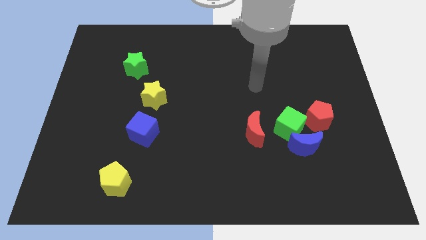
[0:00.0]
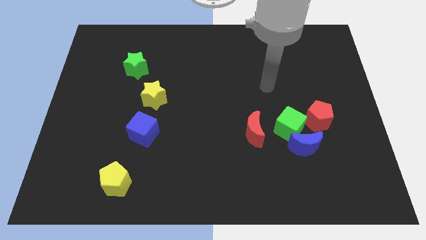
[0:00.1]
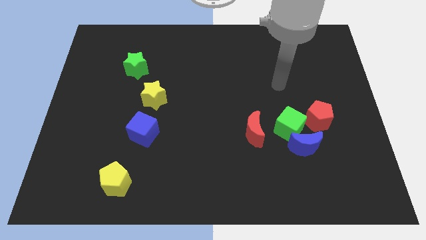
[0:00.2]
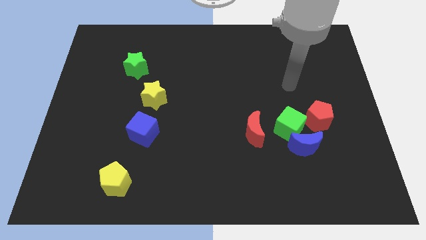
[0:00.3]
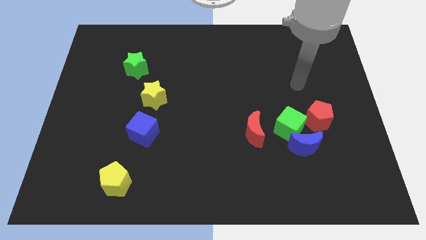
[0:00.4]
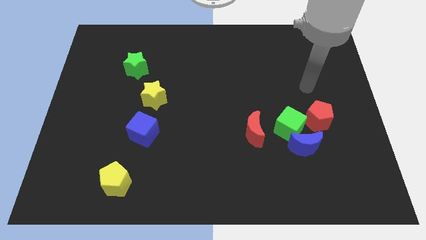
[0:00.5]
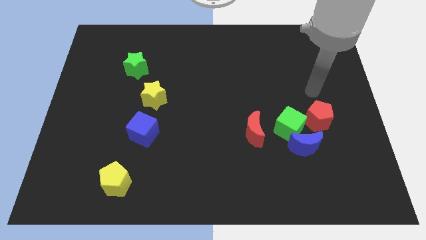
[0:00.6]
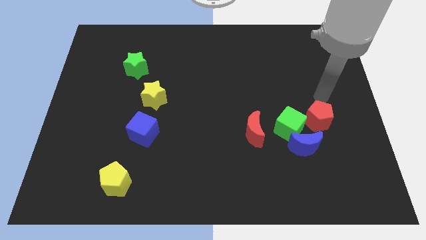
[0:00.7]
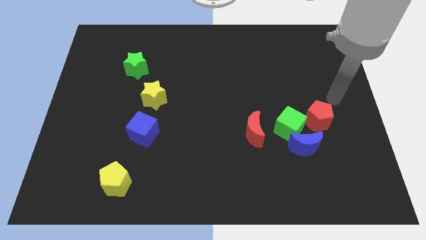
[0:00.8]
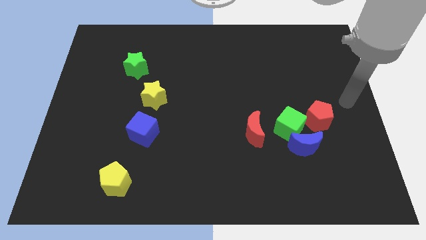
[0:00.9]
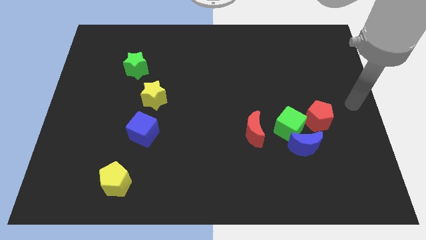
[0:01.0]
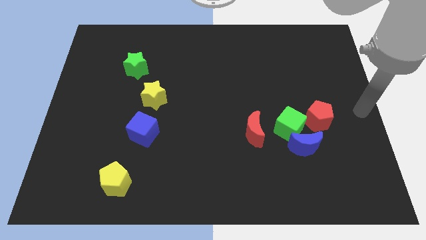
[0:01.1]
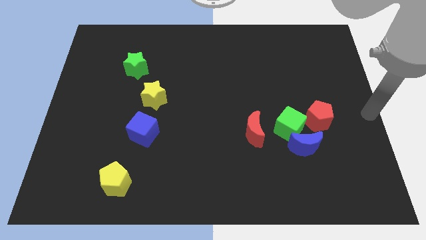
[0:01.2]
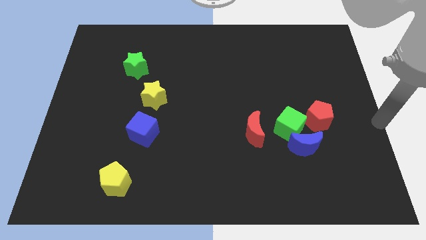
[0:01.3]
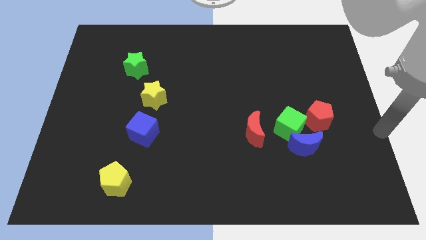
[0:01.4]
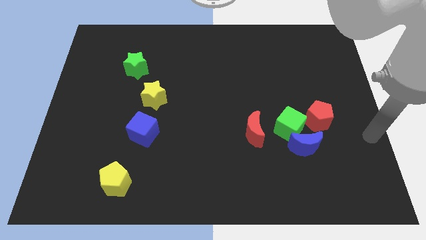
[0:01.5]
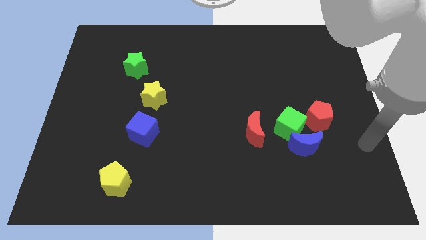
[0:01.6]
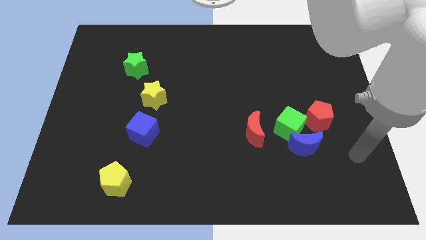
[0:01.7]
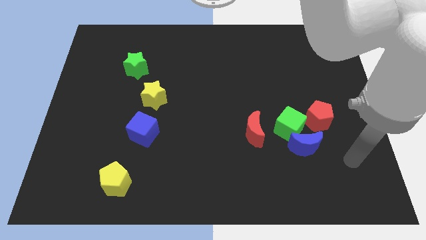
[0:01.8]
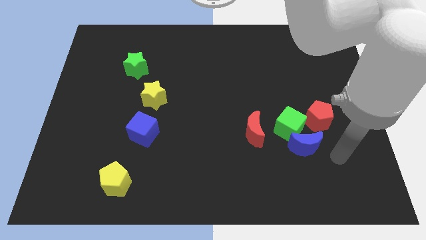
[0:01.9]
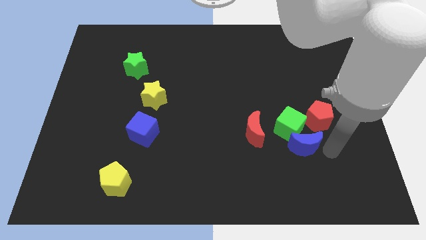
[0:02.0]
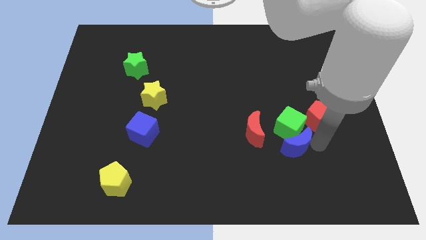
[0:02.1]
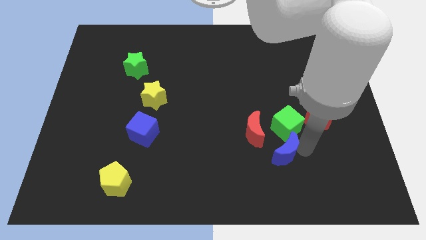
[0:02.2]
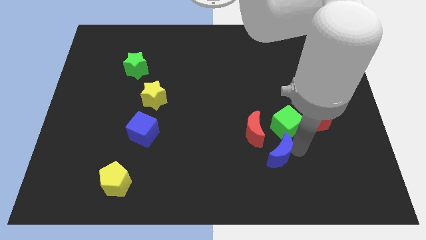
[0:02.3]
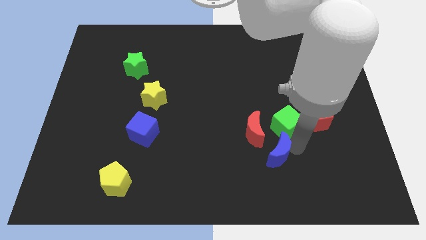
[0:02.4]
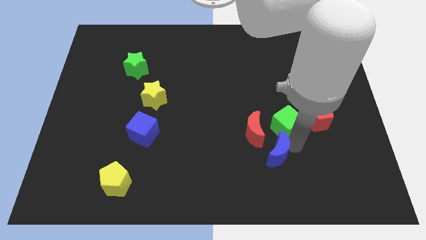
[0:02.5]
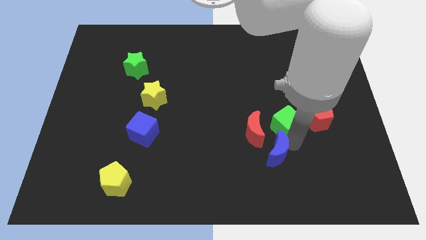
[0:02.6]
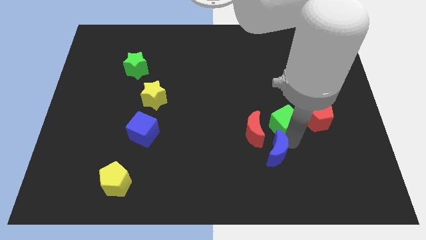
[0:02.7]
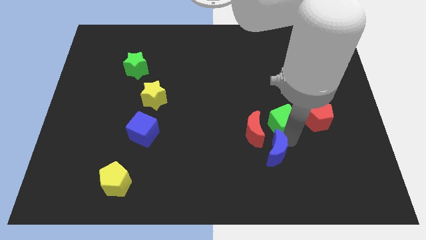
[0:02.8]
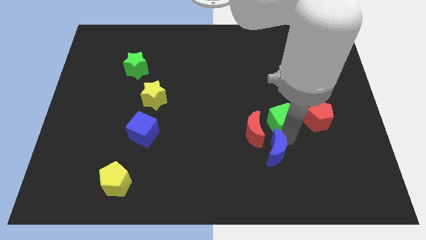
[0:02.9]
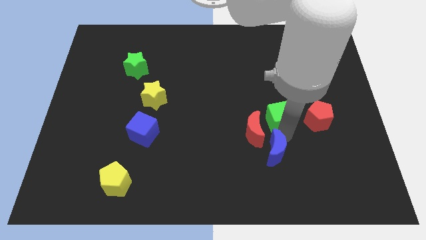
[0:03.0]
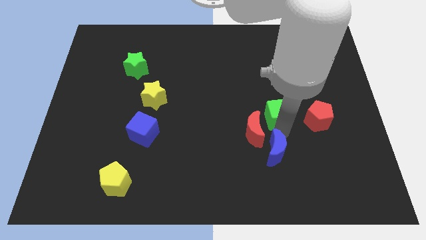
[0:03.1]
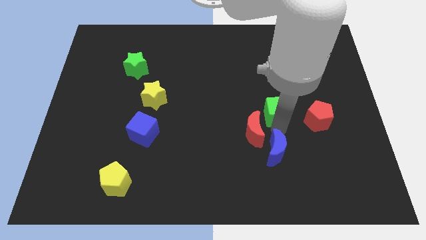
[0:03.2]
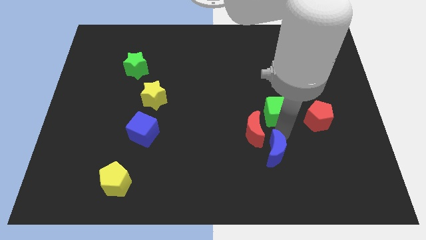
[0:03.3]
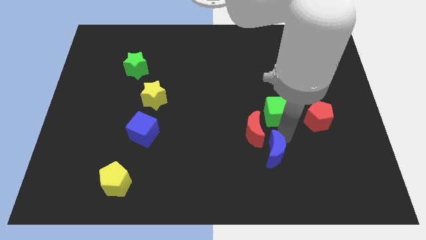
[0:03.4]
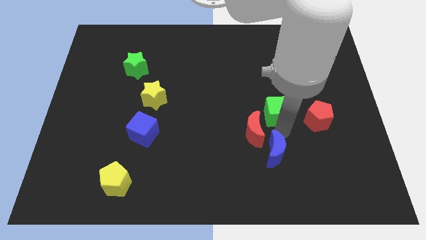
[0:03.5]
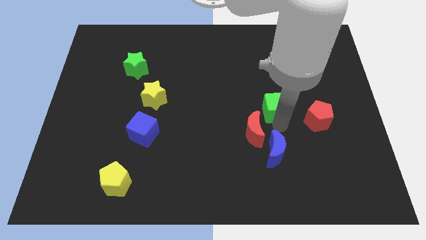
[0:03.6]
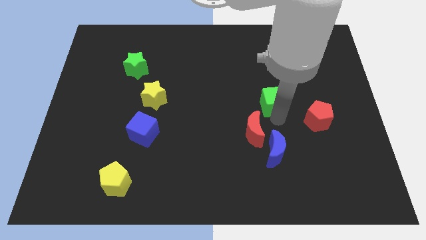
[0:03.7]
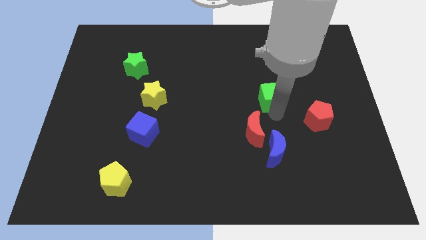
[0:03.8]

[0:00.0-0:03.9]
pull the green cube apart from the group of blocks

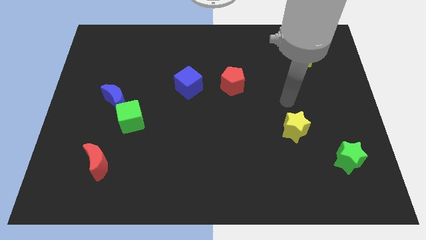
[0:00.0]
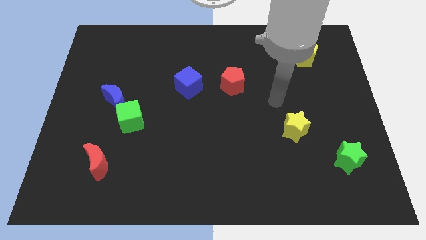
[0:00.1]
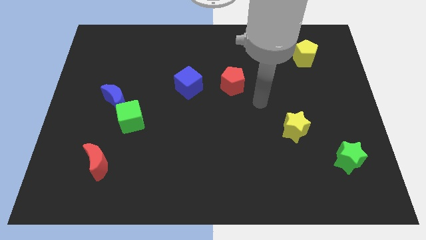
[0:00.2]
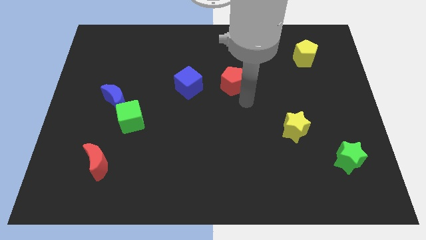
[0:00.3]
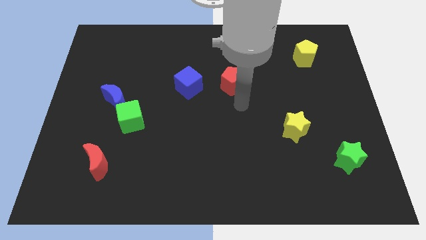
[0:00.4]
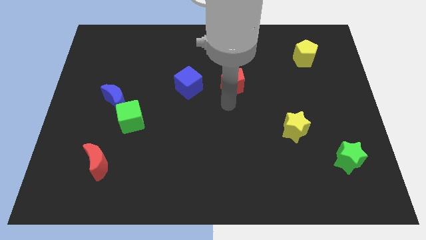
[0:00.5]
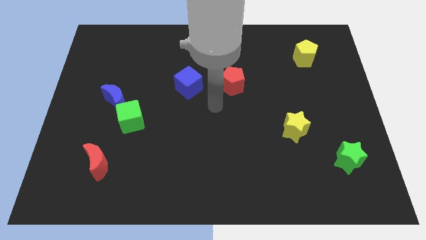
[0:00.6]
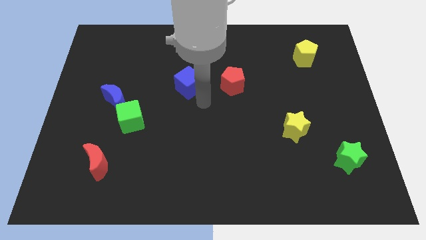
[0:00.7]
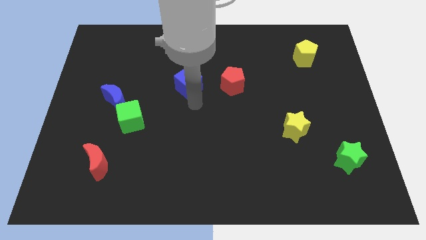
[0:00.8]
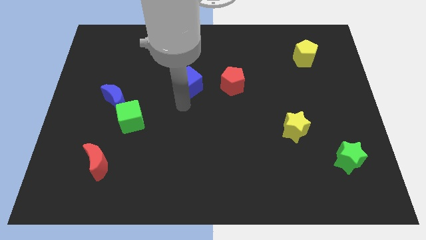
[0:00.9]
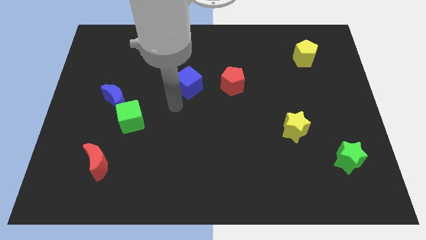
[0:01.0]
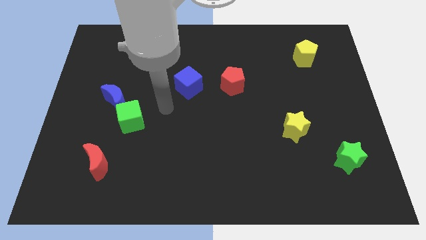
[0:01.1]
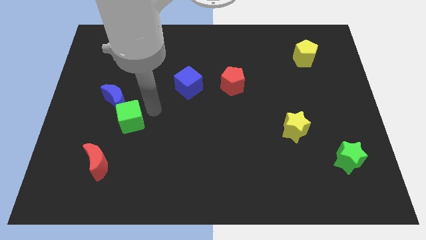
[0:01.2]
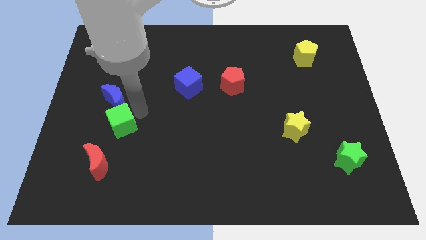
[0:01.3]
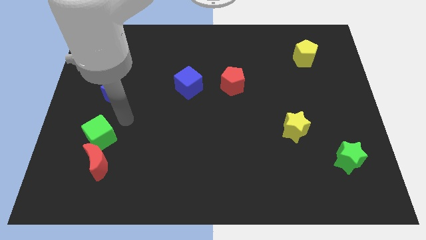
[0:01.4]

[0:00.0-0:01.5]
move the blue moon away from the green cube

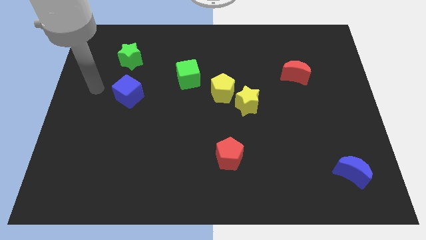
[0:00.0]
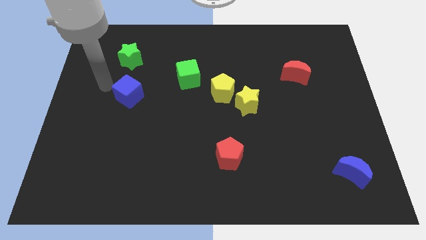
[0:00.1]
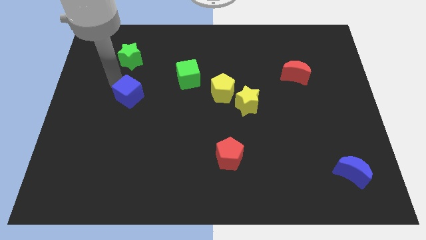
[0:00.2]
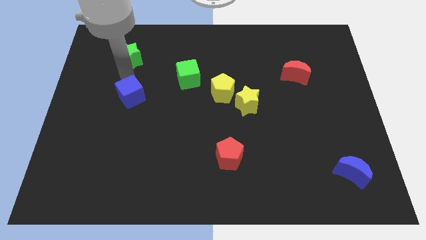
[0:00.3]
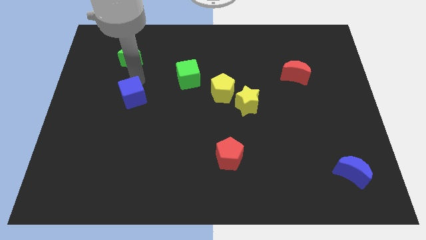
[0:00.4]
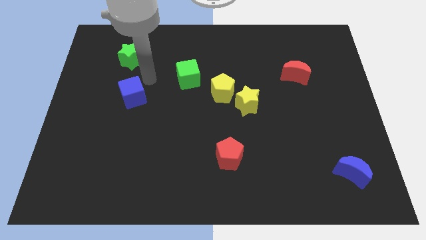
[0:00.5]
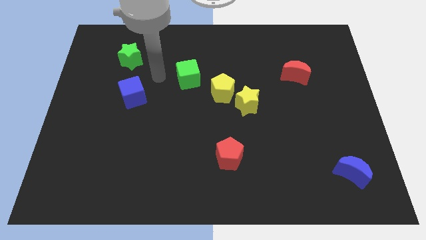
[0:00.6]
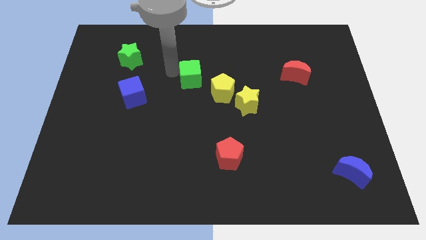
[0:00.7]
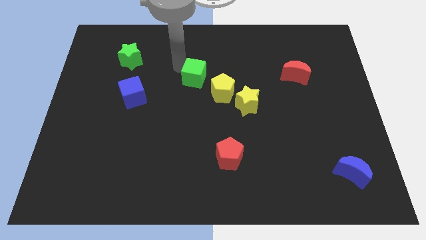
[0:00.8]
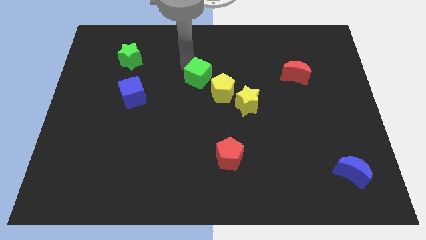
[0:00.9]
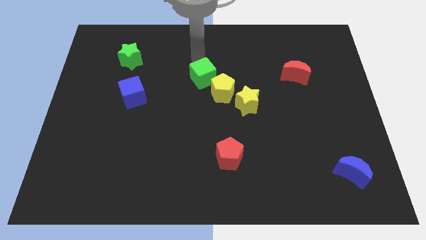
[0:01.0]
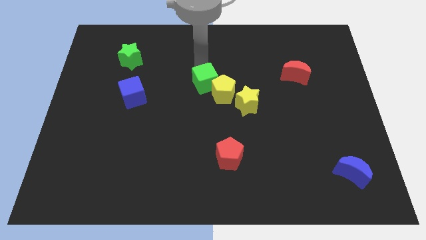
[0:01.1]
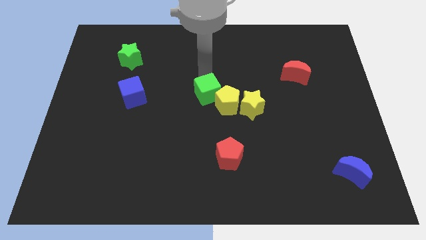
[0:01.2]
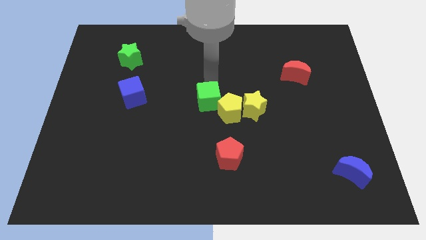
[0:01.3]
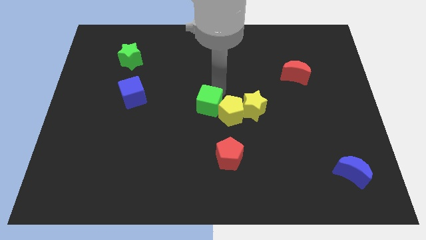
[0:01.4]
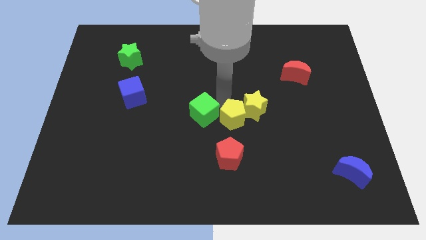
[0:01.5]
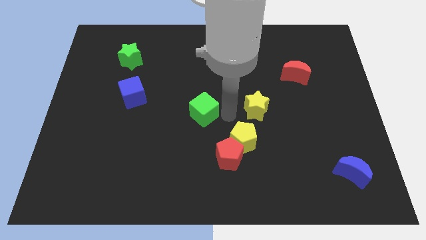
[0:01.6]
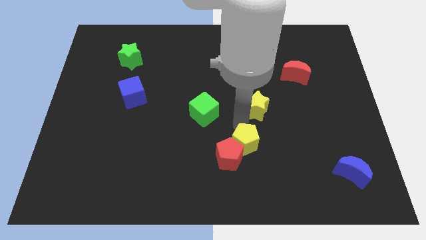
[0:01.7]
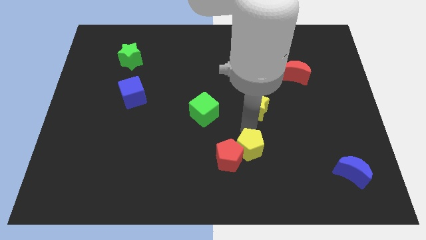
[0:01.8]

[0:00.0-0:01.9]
pull the yellow star apart from the yellow pentagon

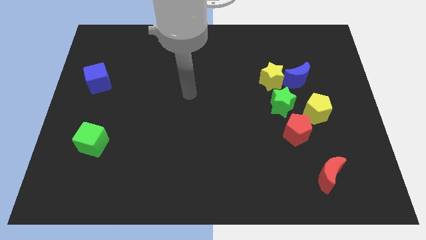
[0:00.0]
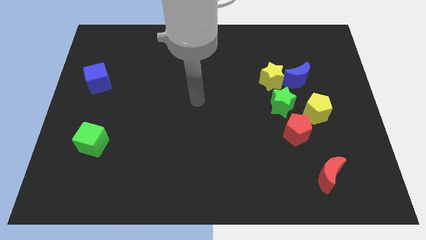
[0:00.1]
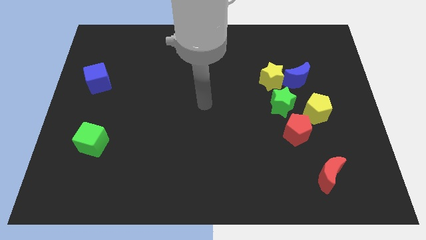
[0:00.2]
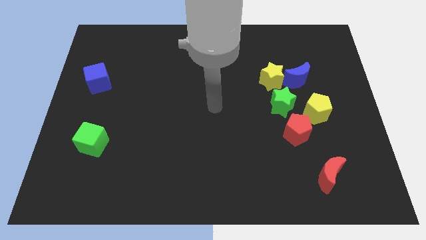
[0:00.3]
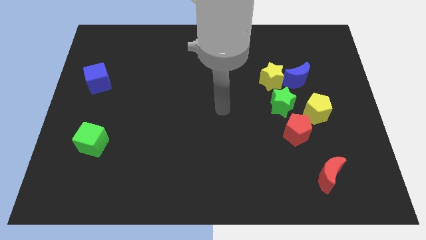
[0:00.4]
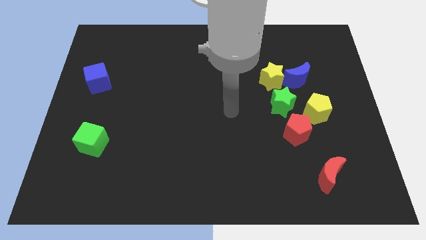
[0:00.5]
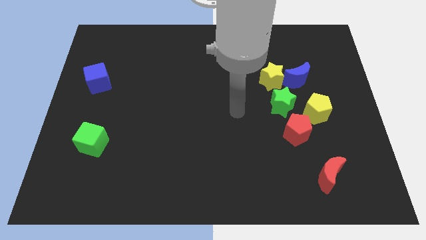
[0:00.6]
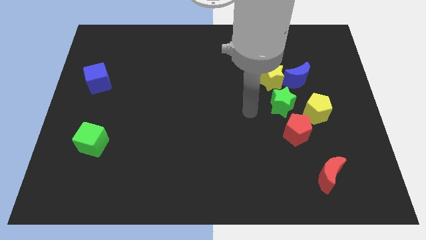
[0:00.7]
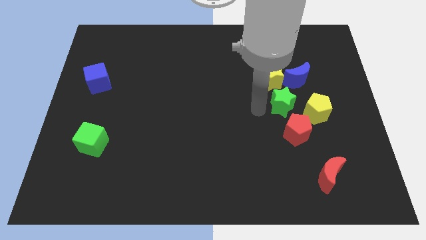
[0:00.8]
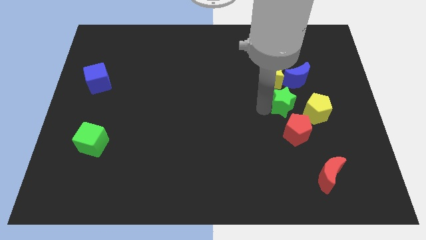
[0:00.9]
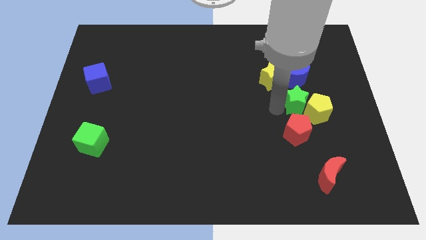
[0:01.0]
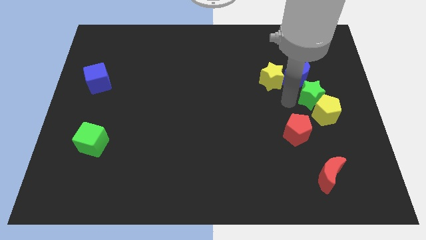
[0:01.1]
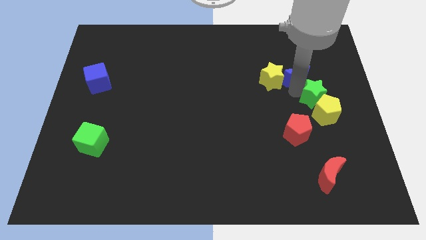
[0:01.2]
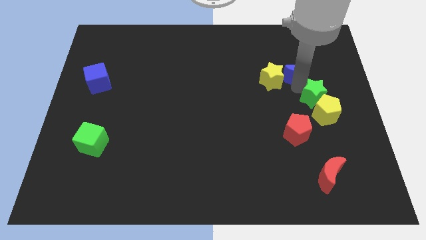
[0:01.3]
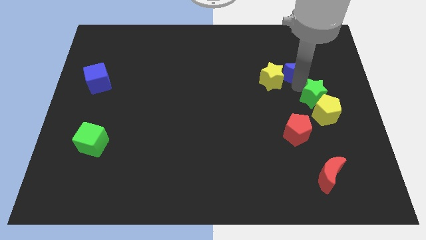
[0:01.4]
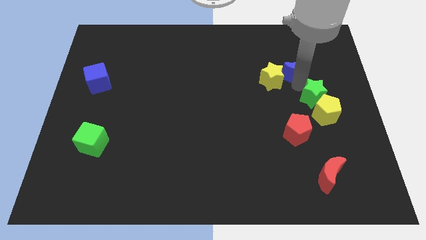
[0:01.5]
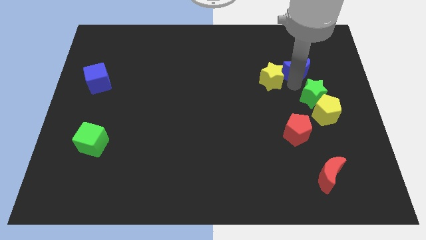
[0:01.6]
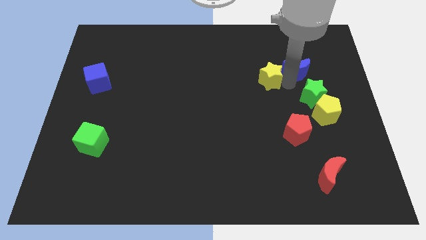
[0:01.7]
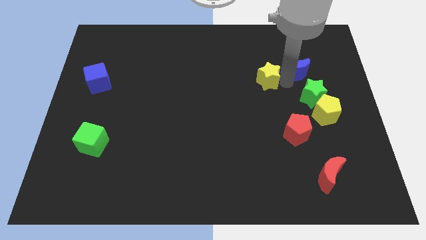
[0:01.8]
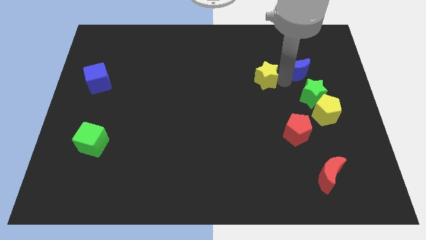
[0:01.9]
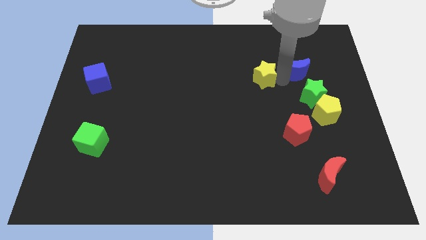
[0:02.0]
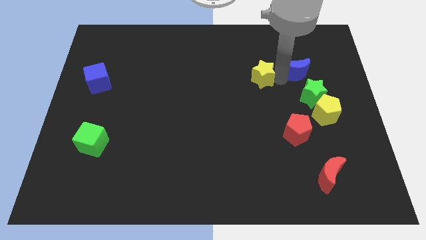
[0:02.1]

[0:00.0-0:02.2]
separate the yellow star from the blue moon and green star
